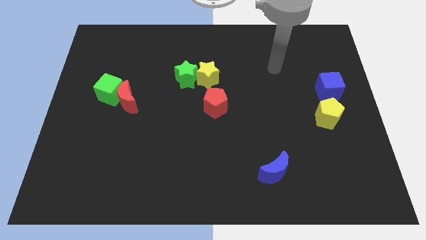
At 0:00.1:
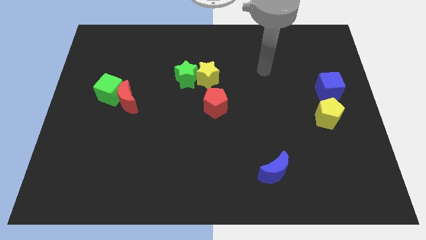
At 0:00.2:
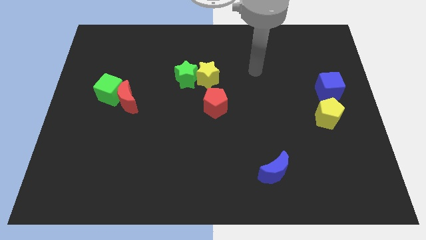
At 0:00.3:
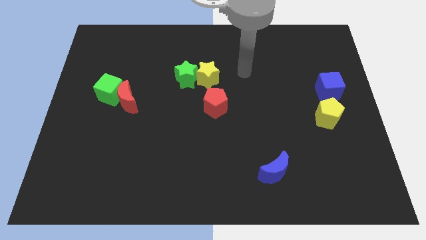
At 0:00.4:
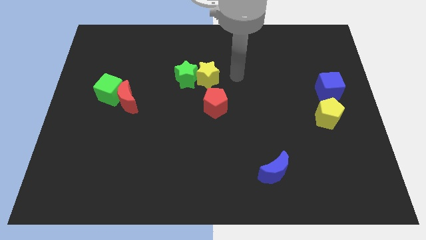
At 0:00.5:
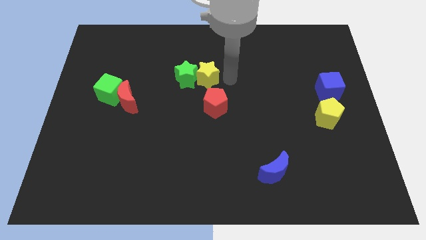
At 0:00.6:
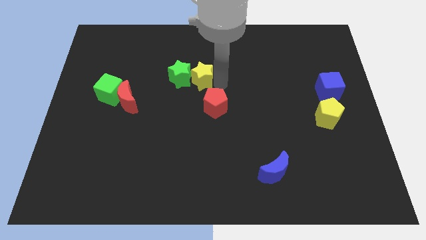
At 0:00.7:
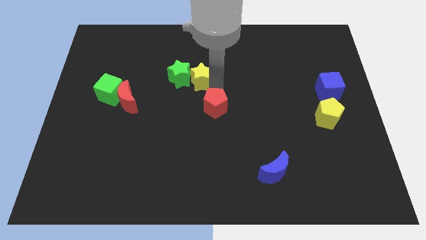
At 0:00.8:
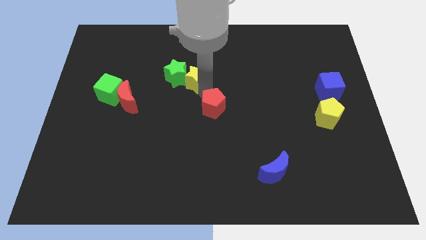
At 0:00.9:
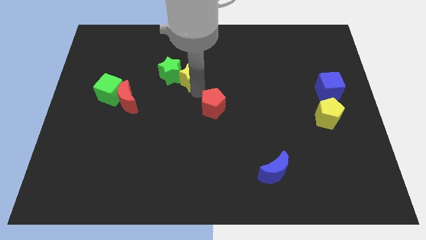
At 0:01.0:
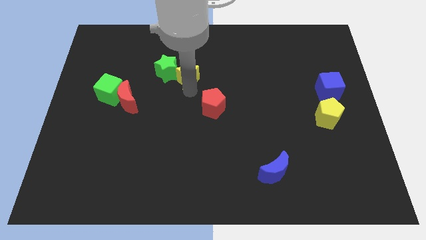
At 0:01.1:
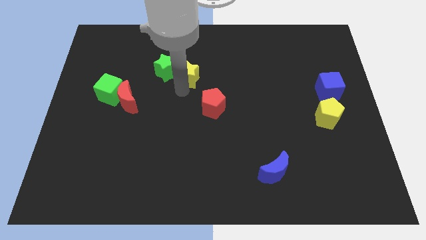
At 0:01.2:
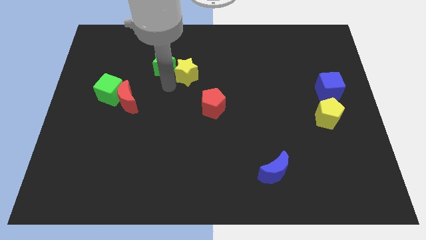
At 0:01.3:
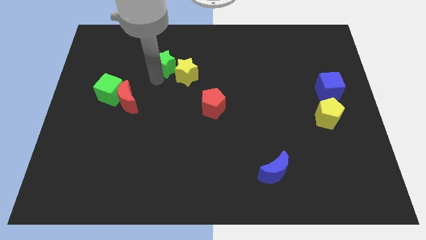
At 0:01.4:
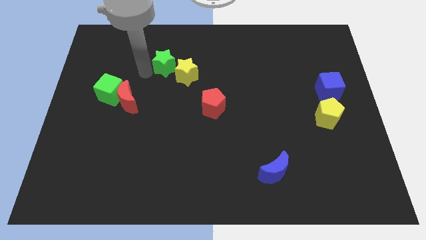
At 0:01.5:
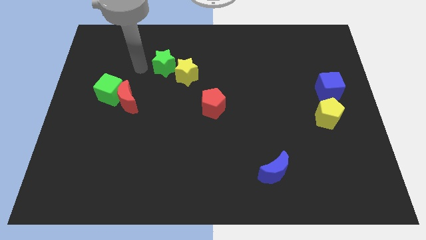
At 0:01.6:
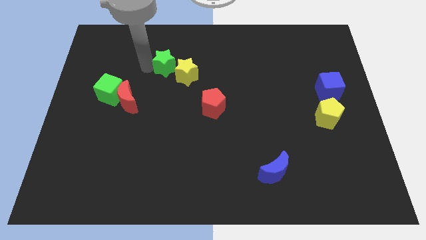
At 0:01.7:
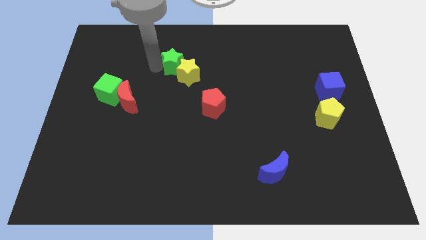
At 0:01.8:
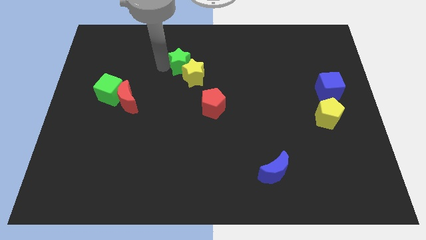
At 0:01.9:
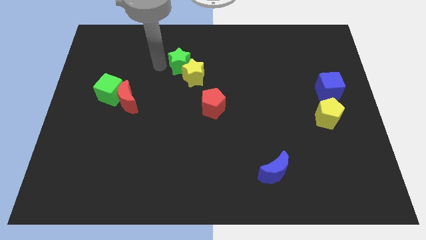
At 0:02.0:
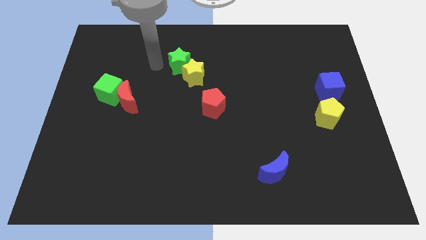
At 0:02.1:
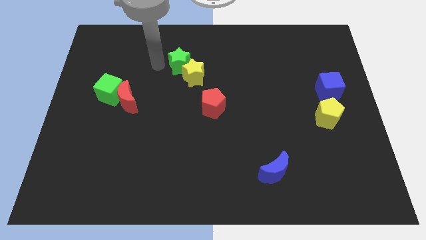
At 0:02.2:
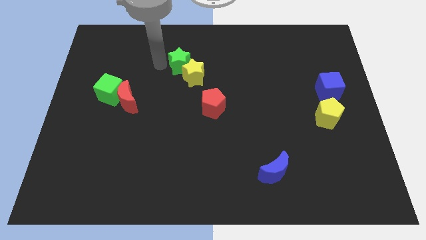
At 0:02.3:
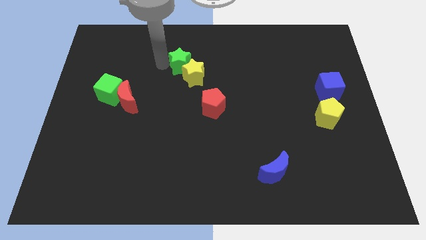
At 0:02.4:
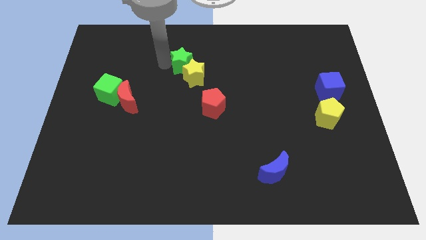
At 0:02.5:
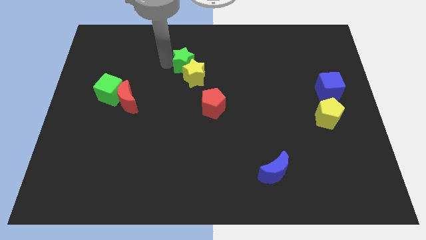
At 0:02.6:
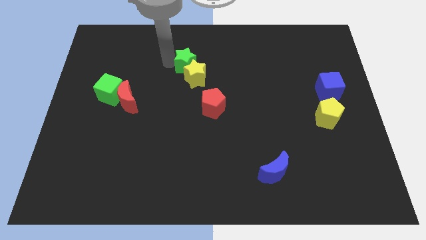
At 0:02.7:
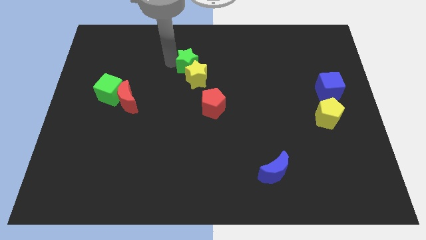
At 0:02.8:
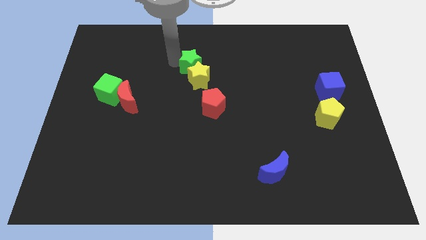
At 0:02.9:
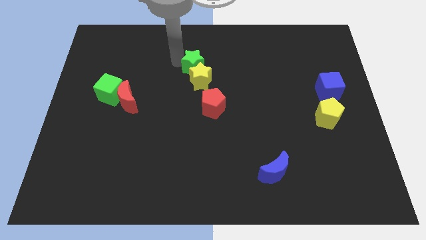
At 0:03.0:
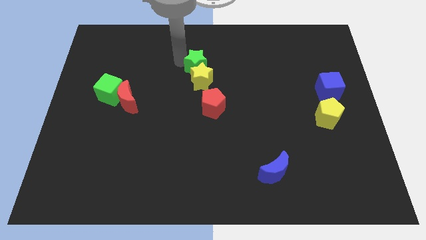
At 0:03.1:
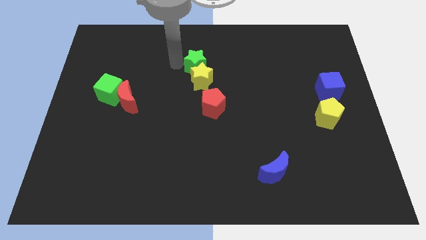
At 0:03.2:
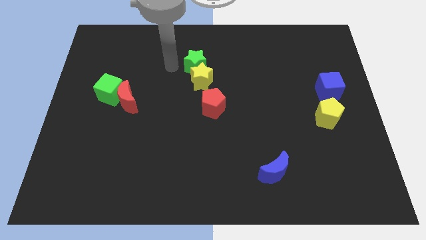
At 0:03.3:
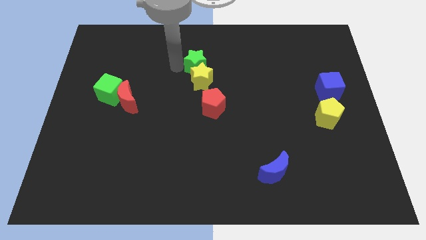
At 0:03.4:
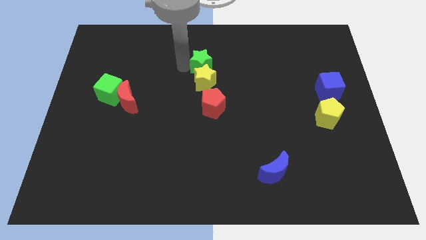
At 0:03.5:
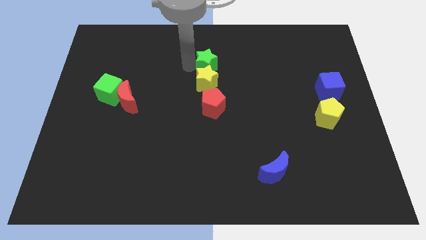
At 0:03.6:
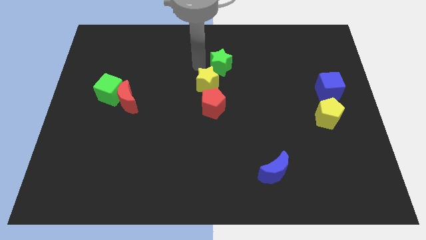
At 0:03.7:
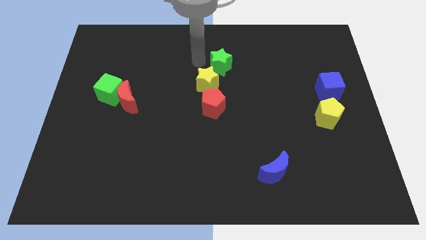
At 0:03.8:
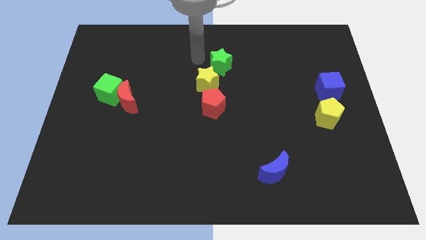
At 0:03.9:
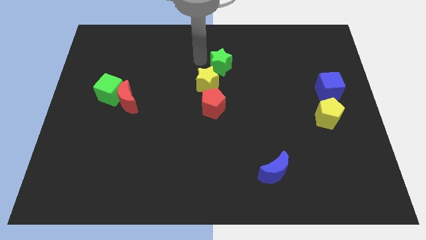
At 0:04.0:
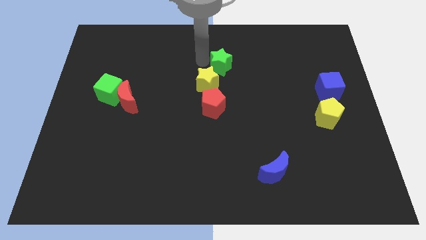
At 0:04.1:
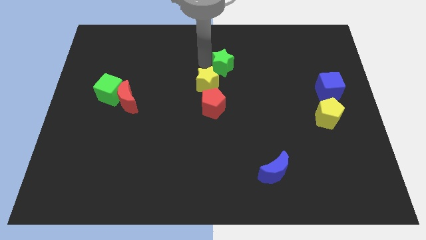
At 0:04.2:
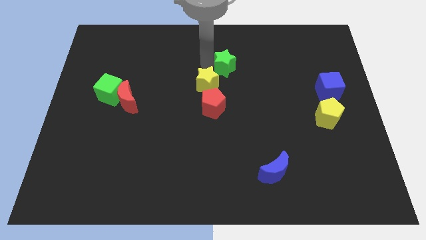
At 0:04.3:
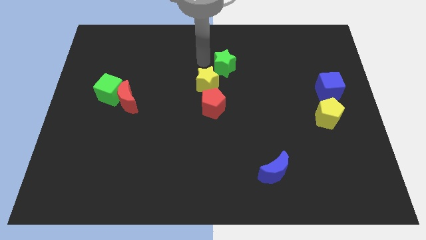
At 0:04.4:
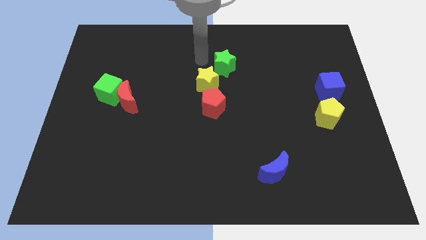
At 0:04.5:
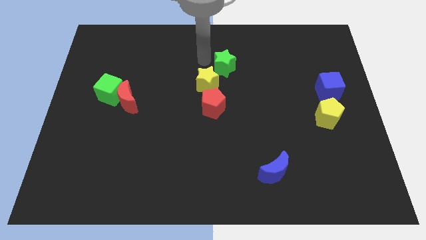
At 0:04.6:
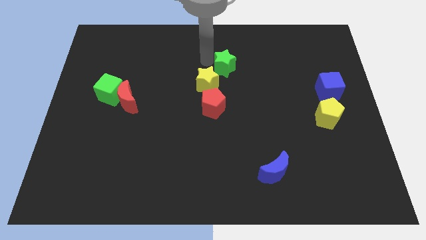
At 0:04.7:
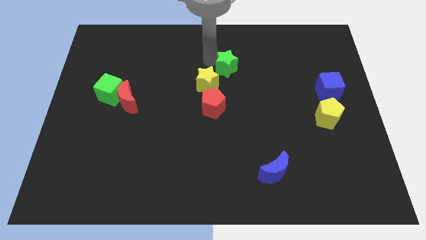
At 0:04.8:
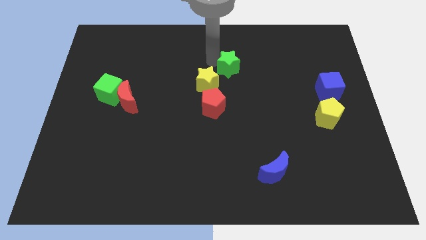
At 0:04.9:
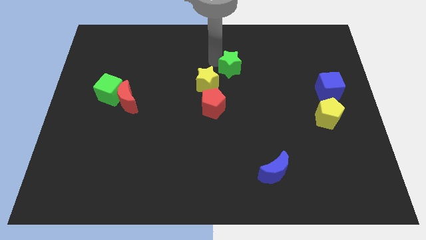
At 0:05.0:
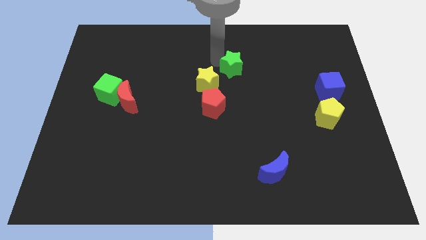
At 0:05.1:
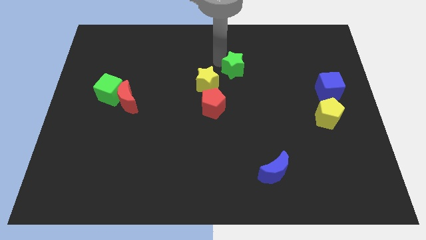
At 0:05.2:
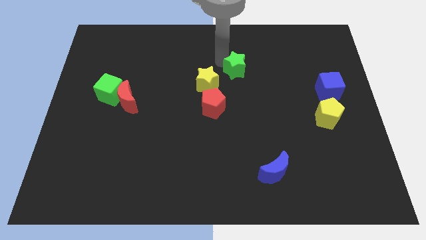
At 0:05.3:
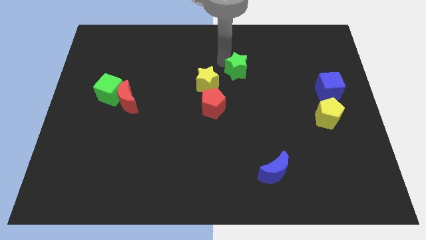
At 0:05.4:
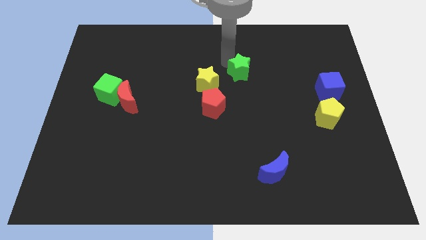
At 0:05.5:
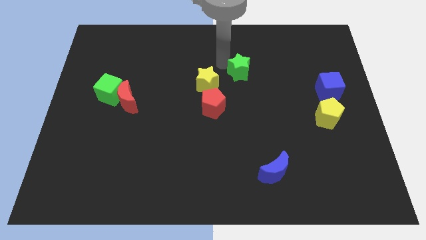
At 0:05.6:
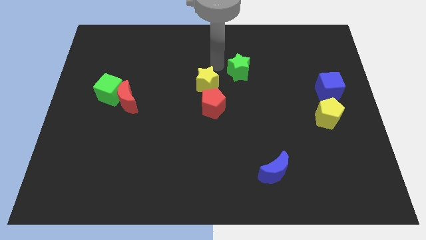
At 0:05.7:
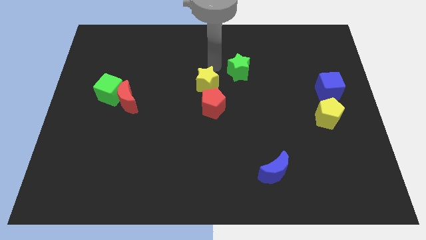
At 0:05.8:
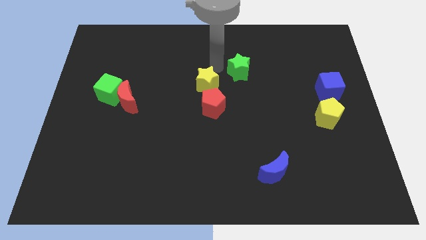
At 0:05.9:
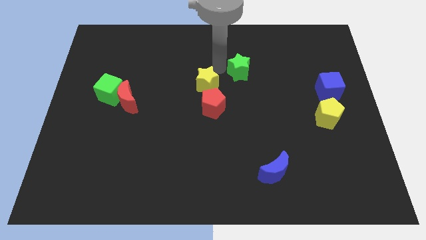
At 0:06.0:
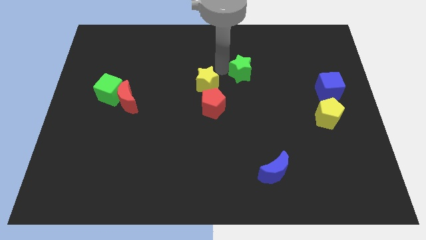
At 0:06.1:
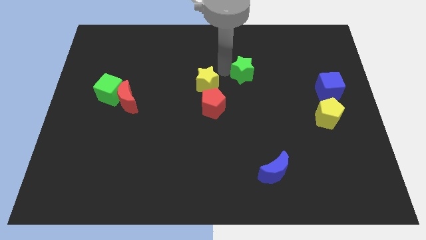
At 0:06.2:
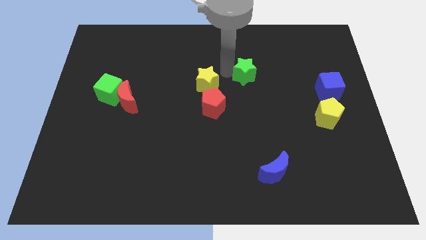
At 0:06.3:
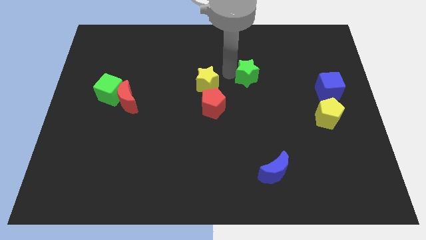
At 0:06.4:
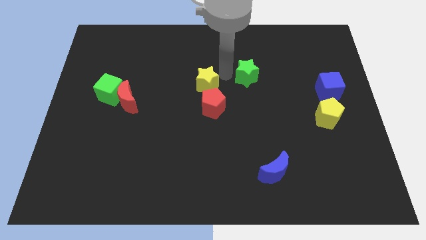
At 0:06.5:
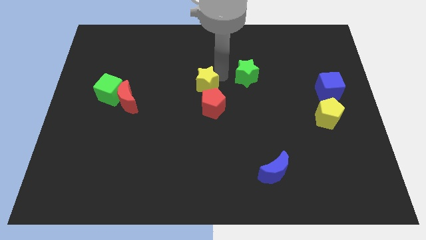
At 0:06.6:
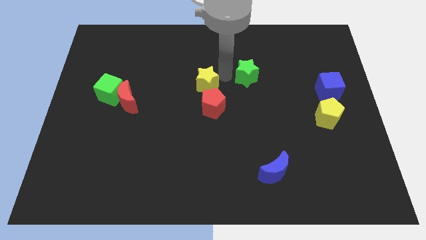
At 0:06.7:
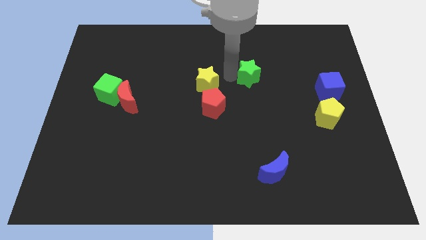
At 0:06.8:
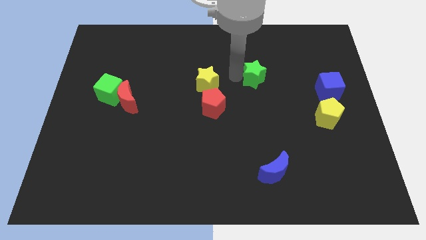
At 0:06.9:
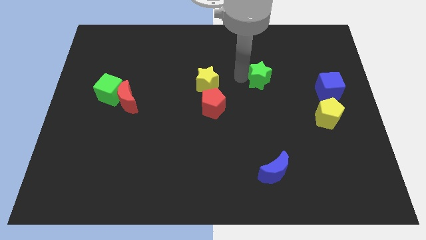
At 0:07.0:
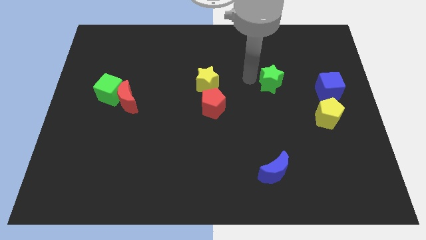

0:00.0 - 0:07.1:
move the green star to the right

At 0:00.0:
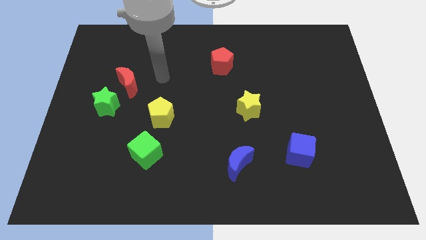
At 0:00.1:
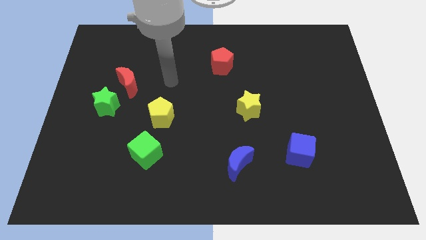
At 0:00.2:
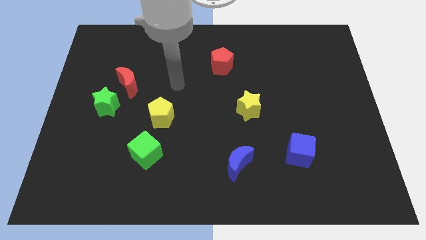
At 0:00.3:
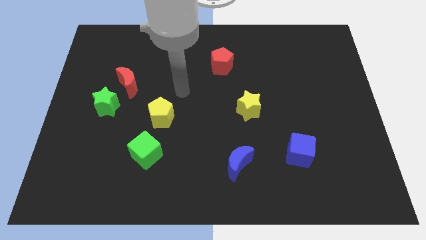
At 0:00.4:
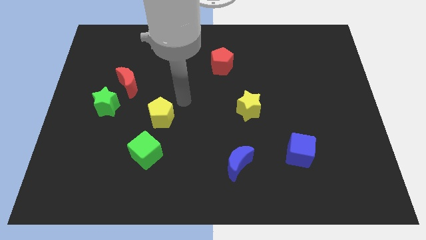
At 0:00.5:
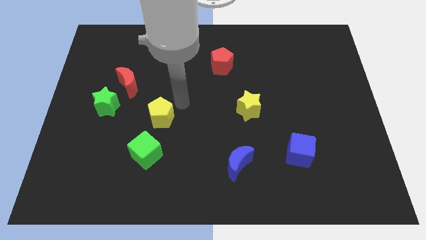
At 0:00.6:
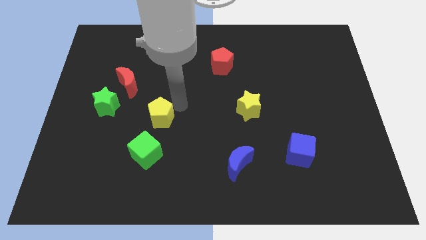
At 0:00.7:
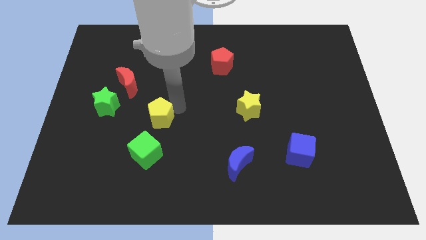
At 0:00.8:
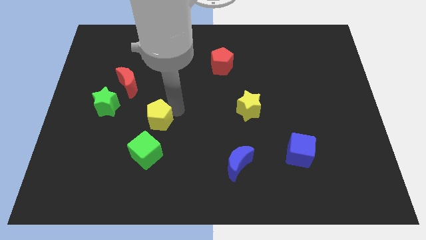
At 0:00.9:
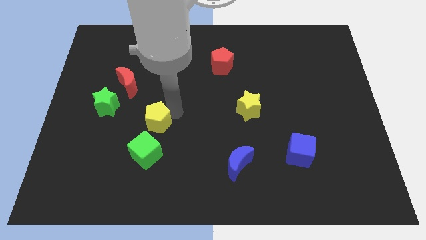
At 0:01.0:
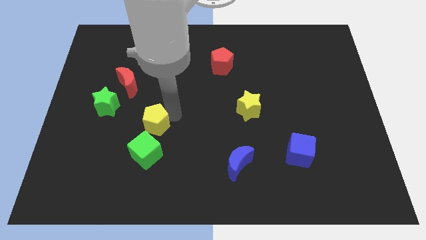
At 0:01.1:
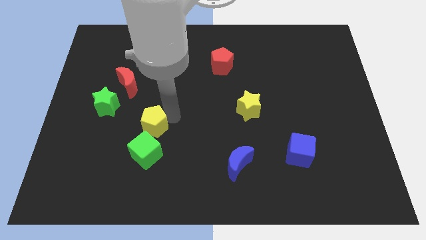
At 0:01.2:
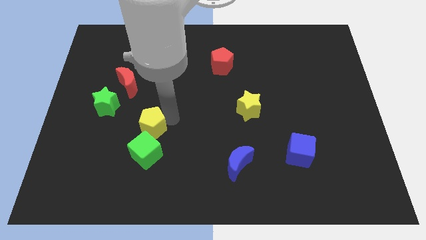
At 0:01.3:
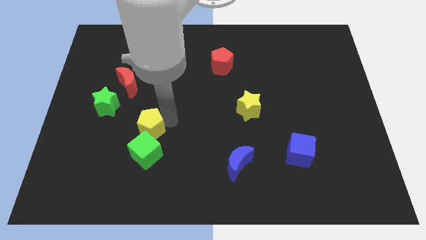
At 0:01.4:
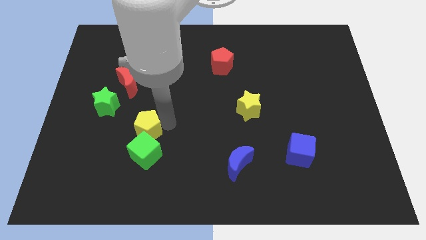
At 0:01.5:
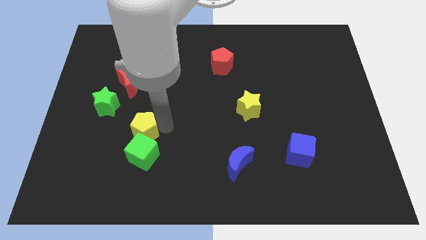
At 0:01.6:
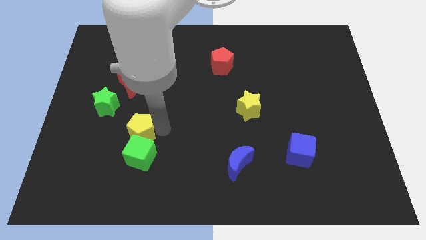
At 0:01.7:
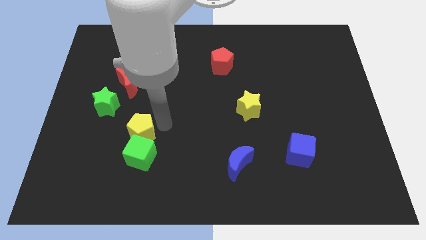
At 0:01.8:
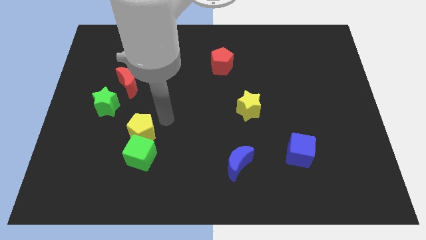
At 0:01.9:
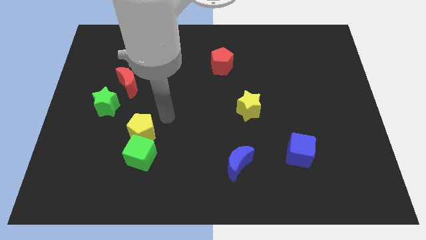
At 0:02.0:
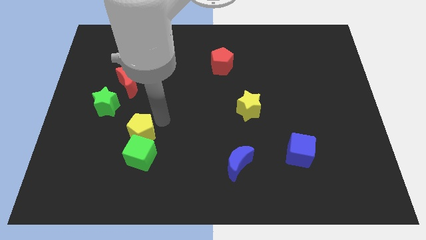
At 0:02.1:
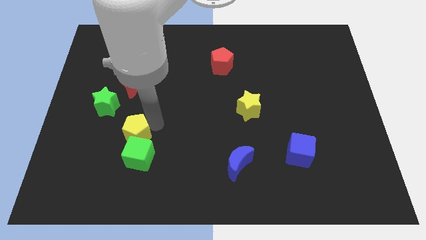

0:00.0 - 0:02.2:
slide the yellow pentagon a little downwards and to the left diagonally
